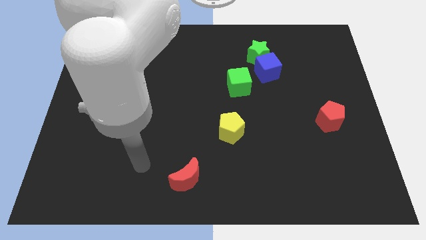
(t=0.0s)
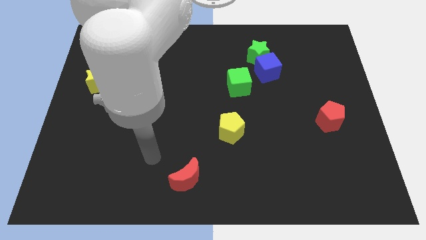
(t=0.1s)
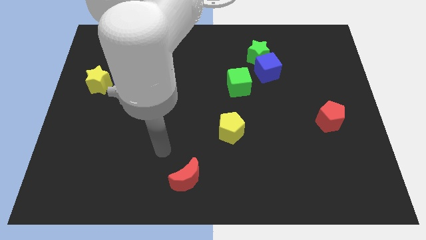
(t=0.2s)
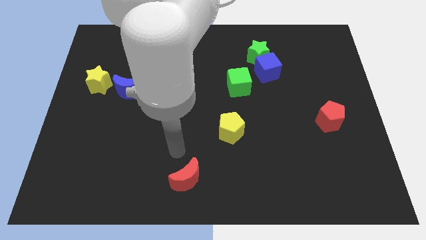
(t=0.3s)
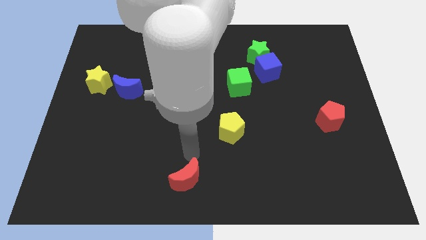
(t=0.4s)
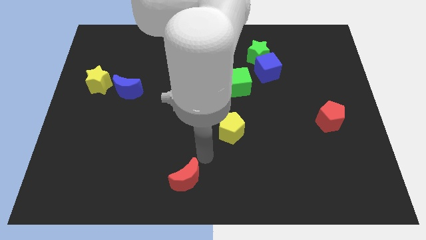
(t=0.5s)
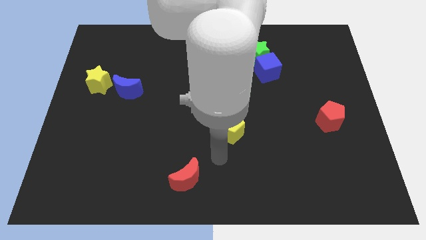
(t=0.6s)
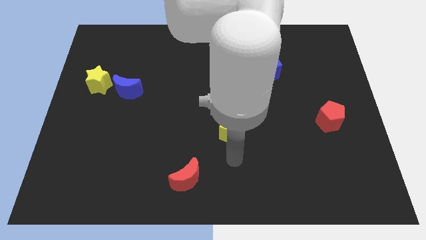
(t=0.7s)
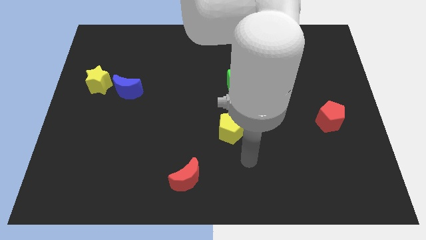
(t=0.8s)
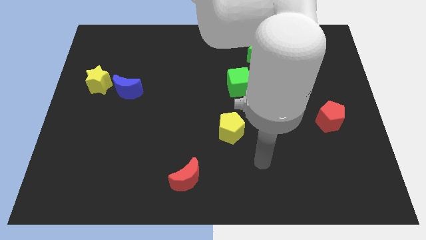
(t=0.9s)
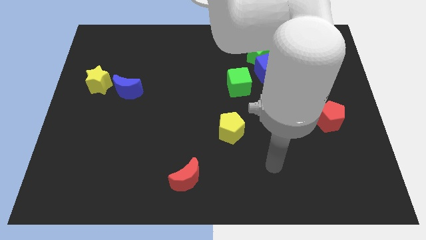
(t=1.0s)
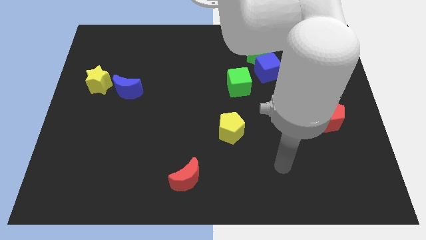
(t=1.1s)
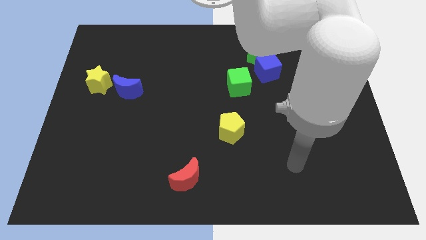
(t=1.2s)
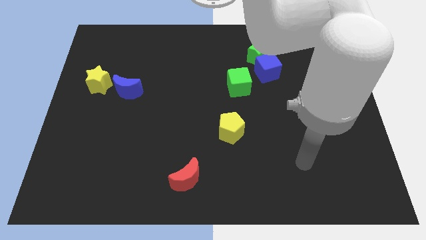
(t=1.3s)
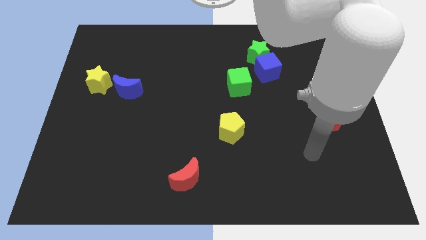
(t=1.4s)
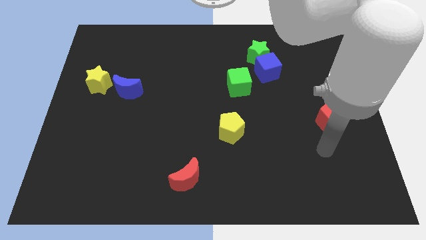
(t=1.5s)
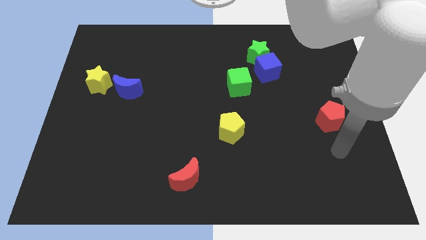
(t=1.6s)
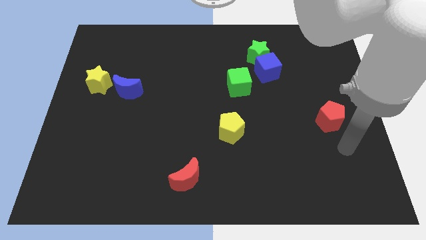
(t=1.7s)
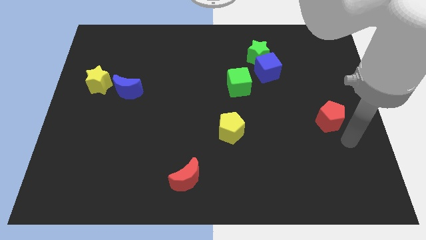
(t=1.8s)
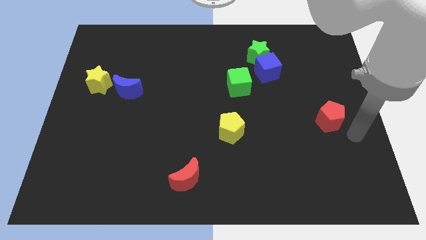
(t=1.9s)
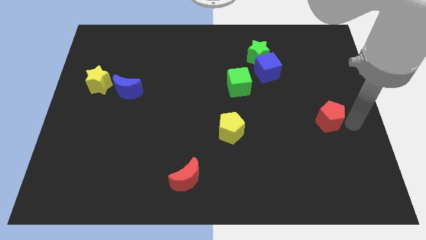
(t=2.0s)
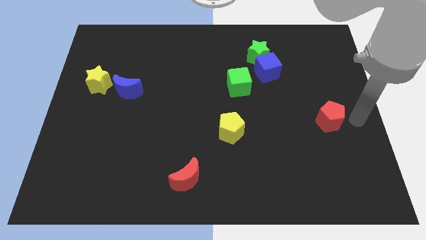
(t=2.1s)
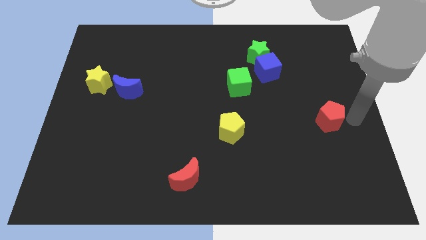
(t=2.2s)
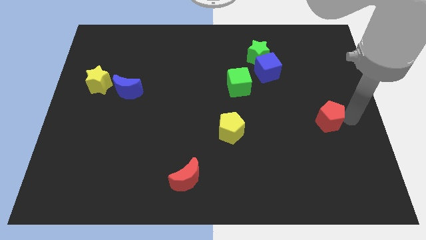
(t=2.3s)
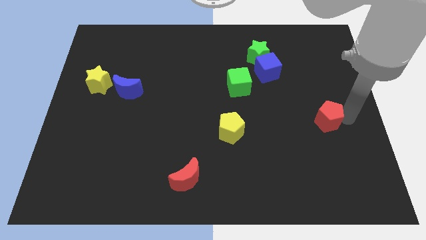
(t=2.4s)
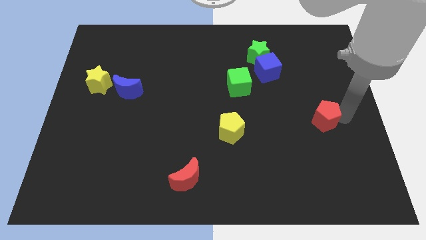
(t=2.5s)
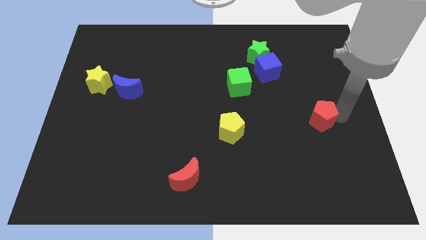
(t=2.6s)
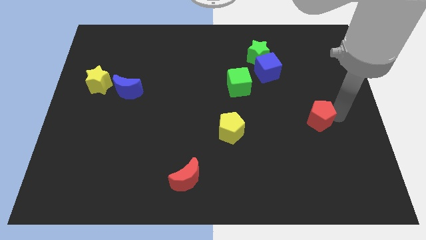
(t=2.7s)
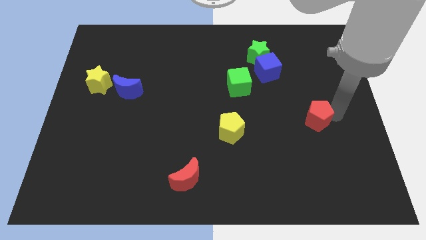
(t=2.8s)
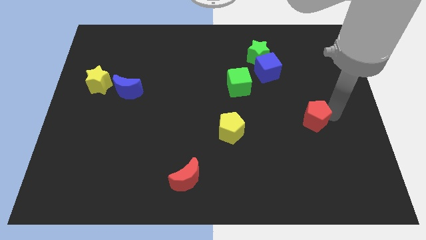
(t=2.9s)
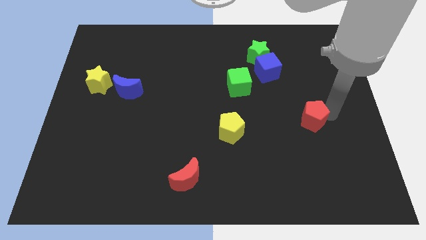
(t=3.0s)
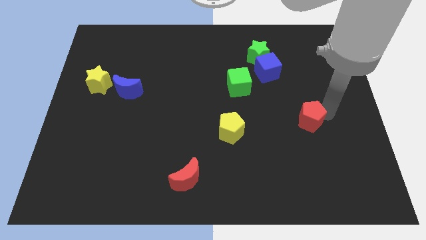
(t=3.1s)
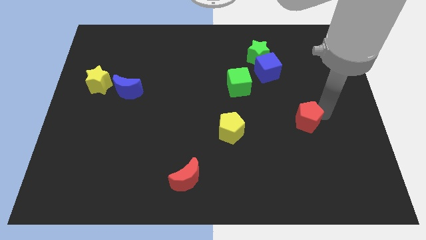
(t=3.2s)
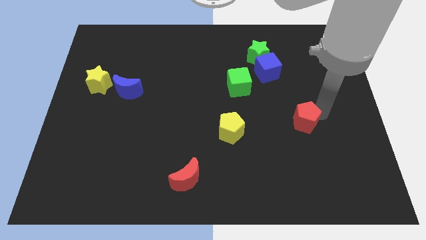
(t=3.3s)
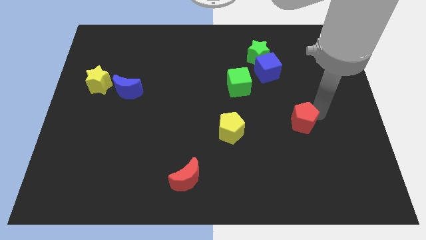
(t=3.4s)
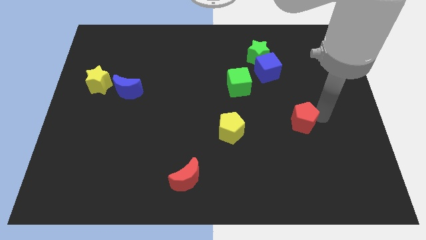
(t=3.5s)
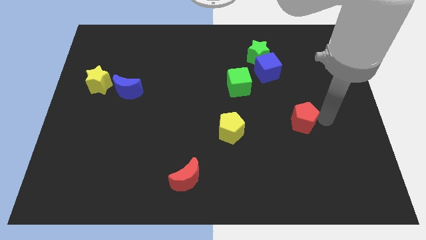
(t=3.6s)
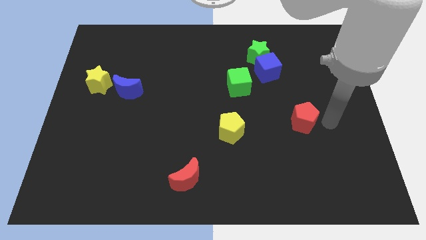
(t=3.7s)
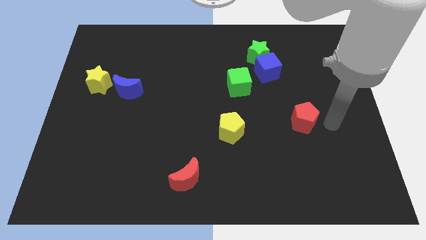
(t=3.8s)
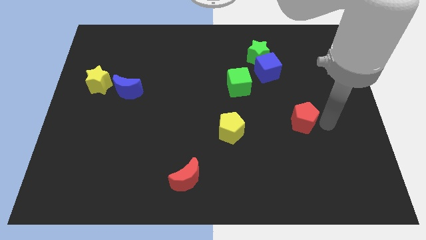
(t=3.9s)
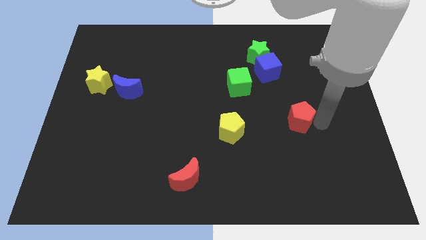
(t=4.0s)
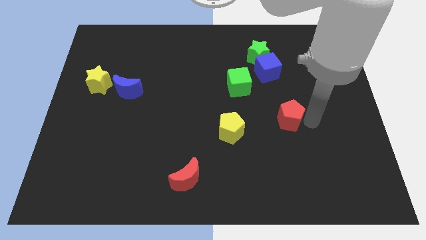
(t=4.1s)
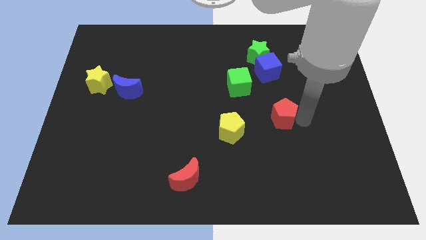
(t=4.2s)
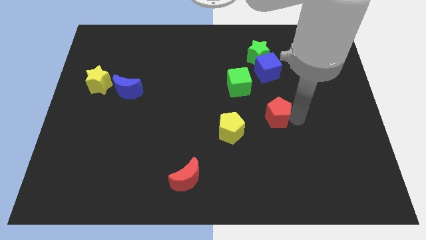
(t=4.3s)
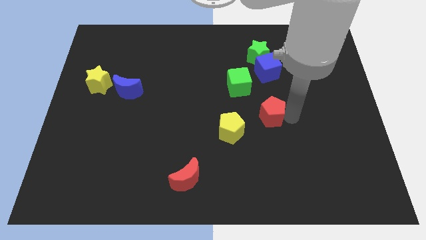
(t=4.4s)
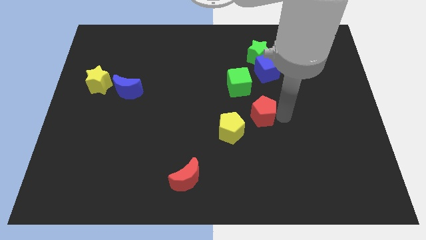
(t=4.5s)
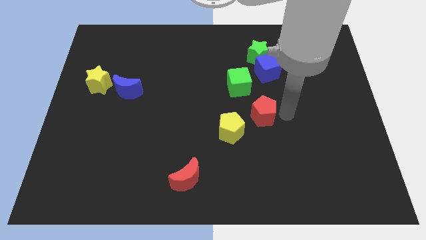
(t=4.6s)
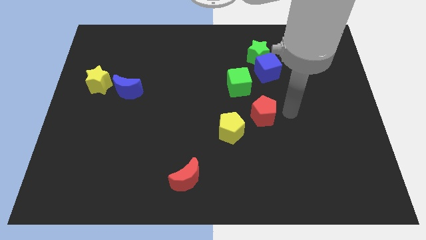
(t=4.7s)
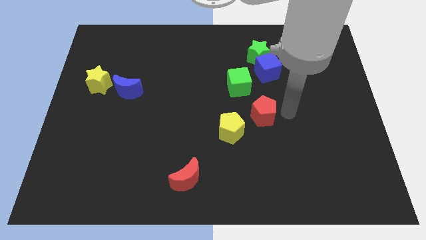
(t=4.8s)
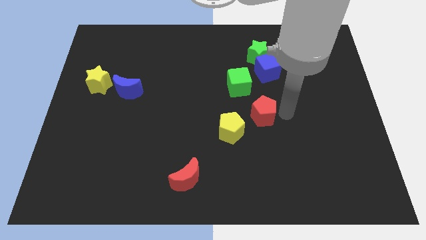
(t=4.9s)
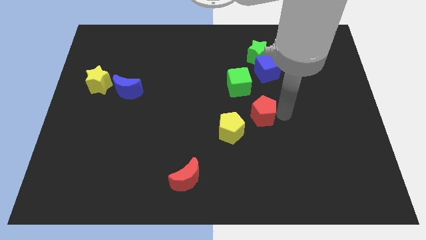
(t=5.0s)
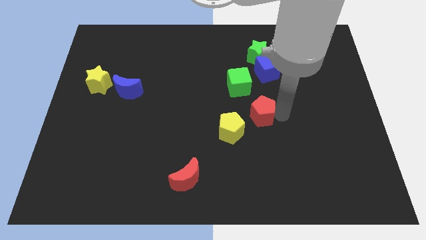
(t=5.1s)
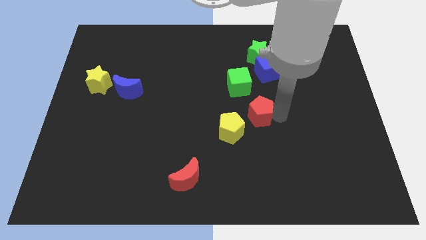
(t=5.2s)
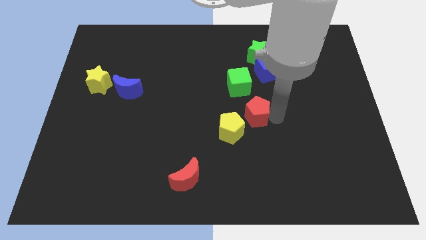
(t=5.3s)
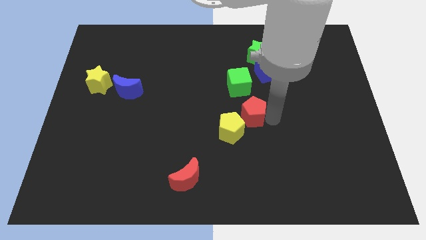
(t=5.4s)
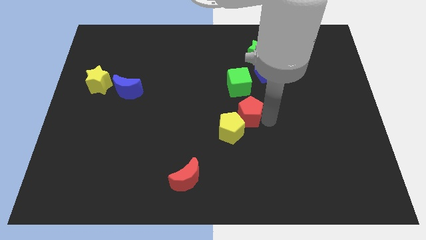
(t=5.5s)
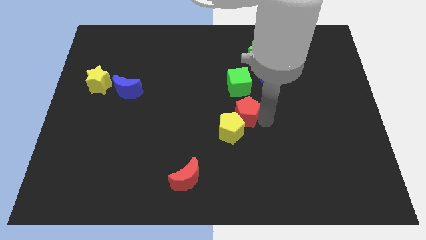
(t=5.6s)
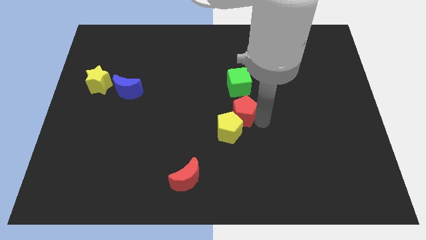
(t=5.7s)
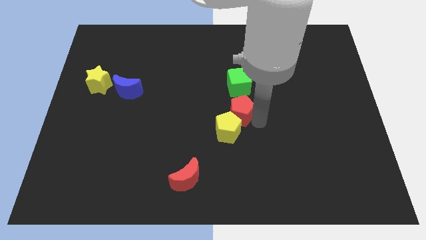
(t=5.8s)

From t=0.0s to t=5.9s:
slide the red pentagon to the left

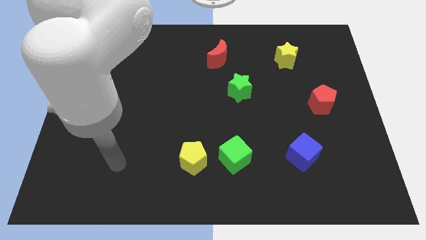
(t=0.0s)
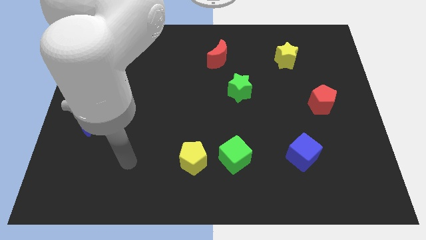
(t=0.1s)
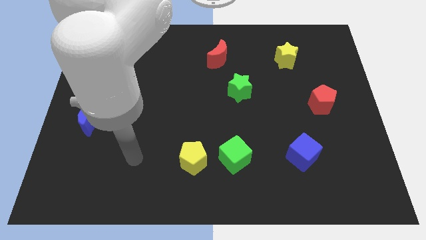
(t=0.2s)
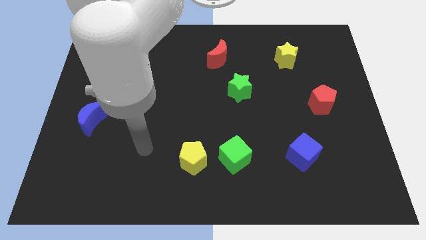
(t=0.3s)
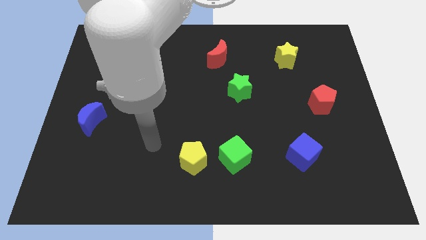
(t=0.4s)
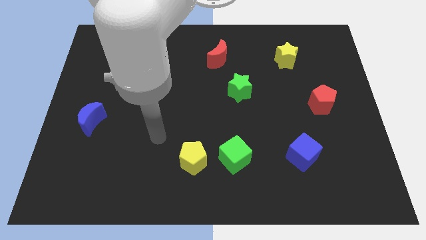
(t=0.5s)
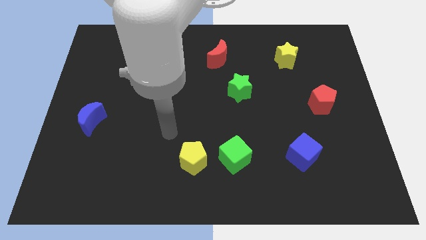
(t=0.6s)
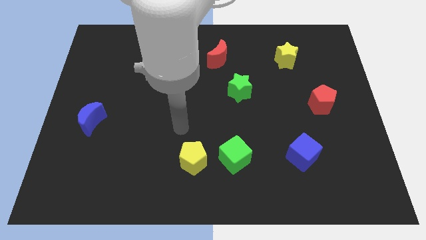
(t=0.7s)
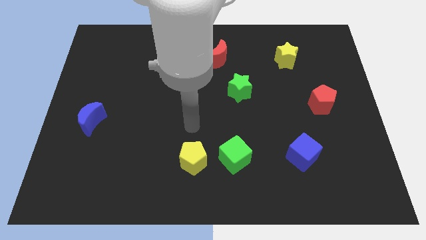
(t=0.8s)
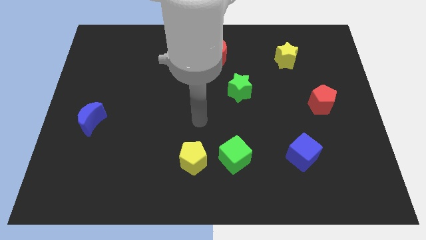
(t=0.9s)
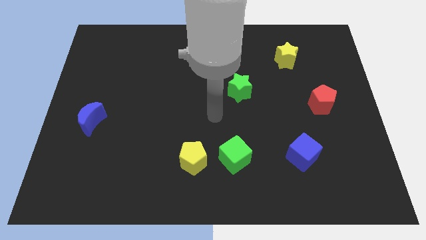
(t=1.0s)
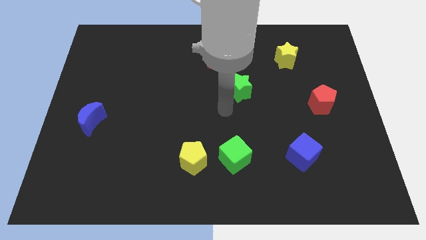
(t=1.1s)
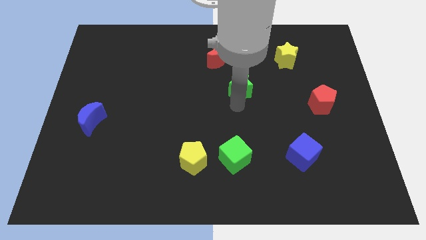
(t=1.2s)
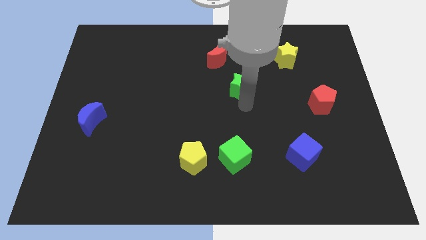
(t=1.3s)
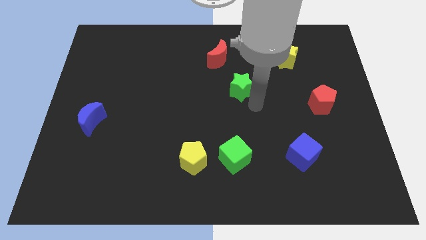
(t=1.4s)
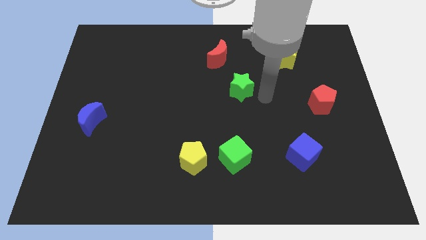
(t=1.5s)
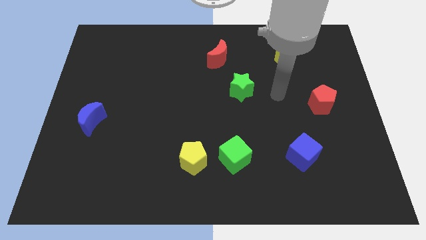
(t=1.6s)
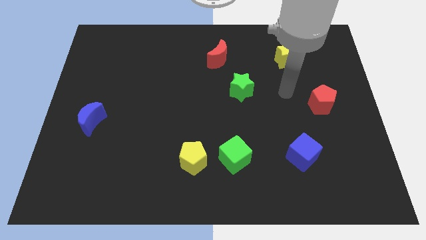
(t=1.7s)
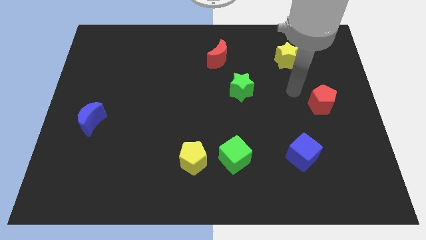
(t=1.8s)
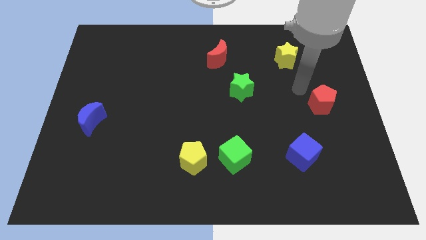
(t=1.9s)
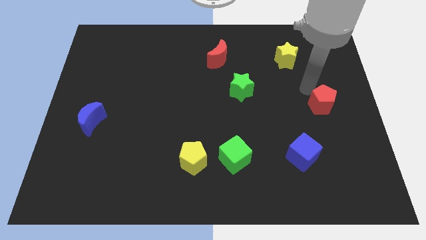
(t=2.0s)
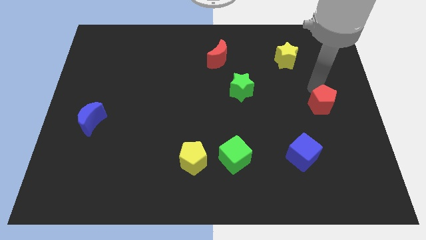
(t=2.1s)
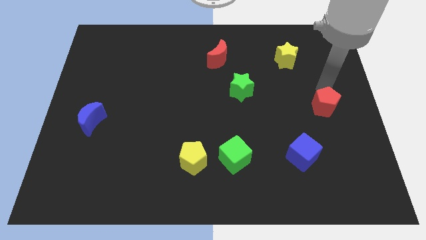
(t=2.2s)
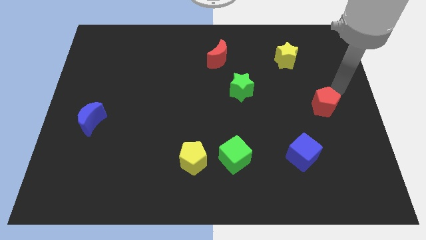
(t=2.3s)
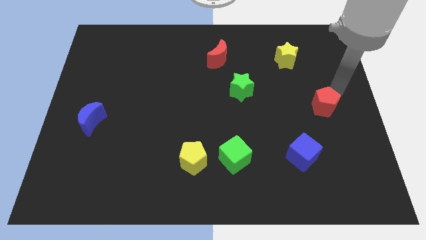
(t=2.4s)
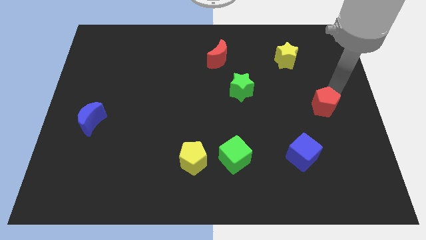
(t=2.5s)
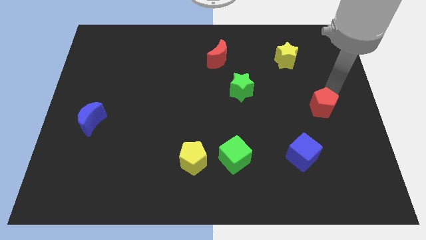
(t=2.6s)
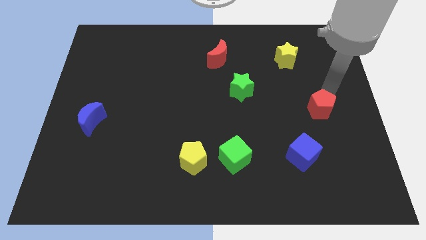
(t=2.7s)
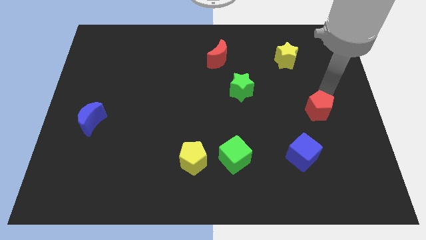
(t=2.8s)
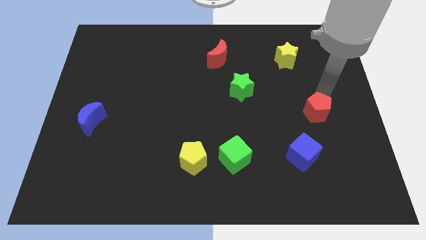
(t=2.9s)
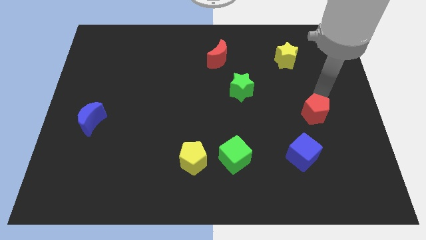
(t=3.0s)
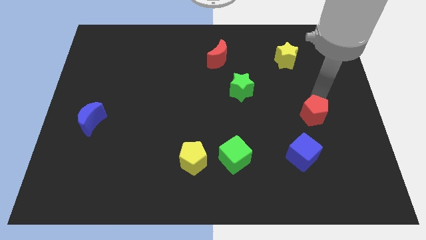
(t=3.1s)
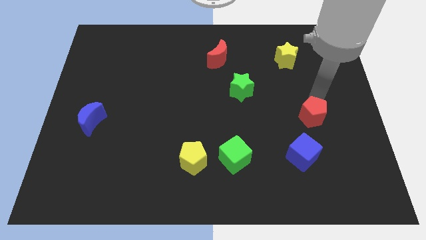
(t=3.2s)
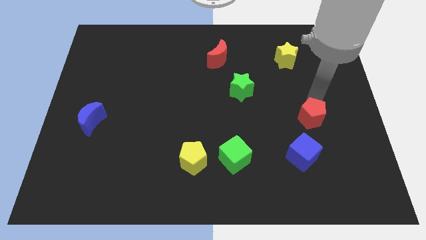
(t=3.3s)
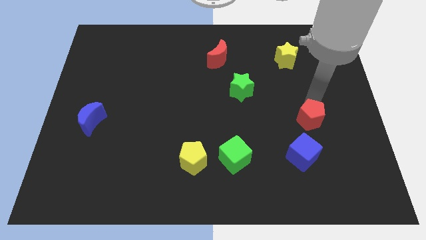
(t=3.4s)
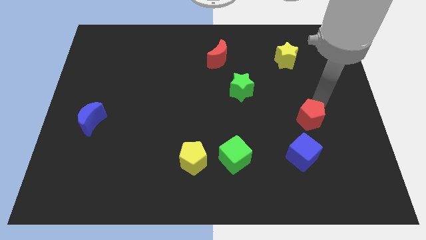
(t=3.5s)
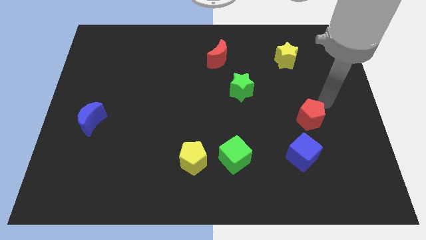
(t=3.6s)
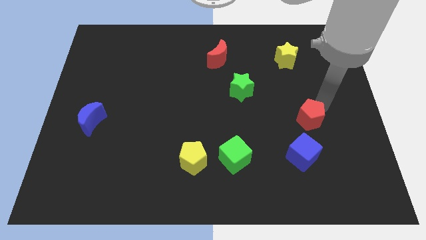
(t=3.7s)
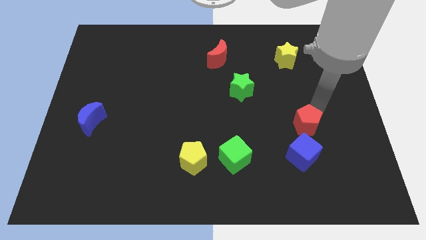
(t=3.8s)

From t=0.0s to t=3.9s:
slightly slide the red pentagon down and then to the left
